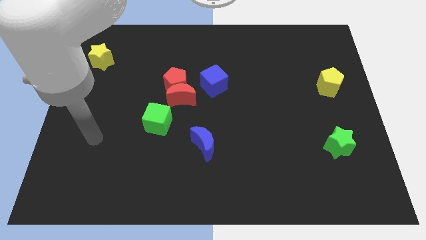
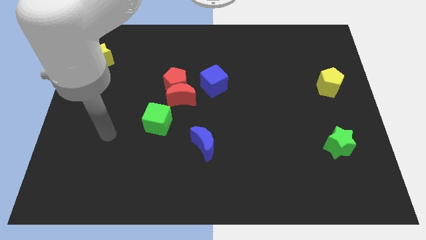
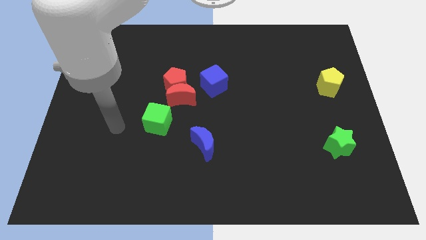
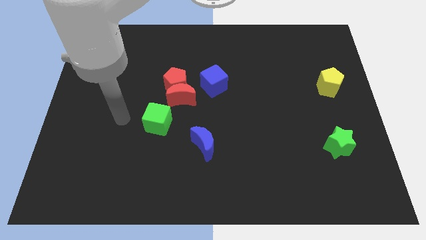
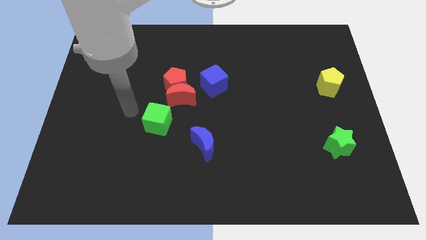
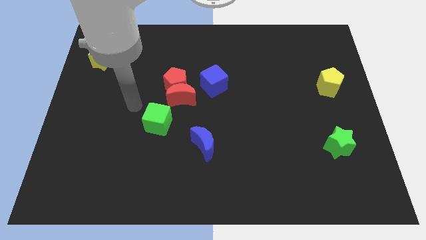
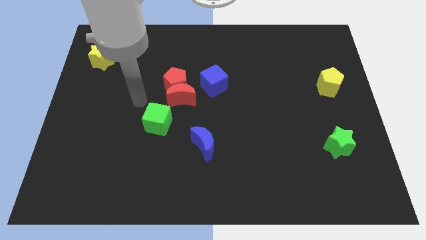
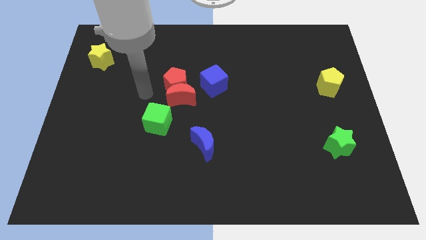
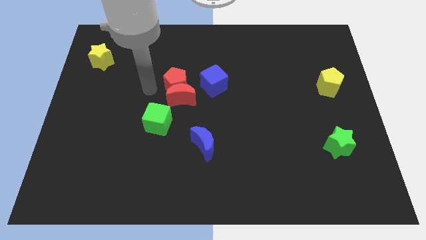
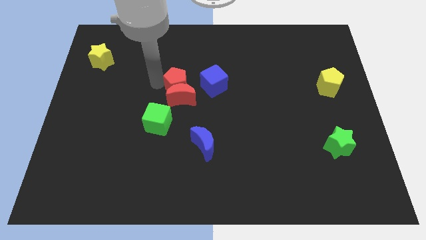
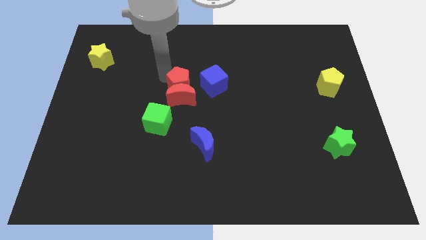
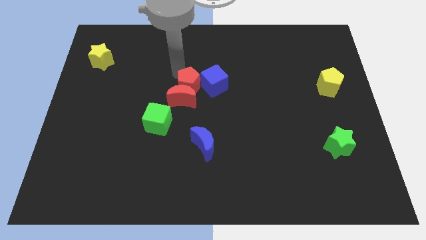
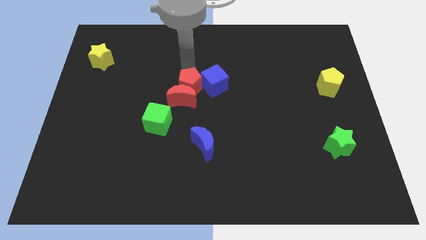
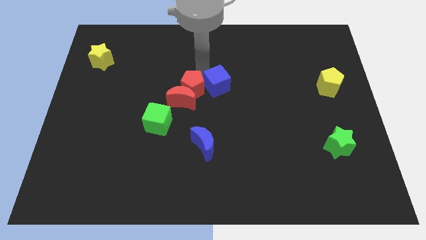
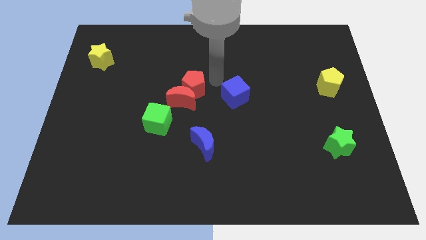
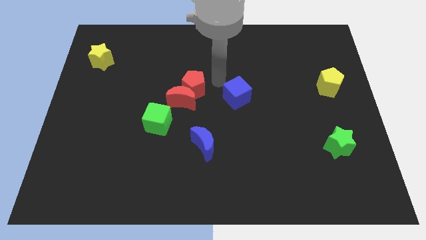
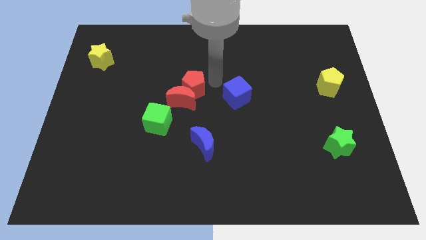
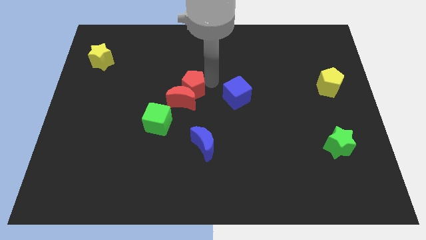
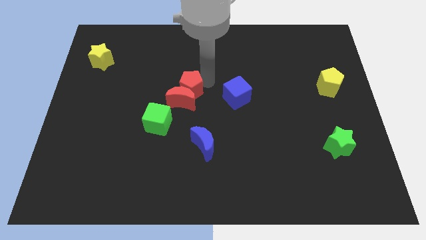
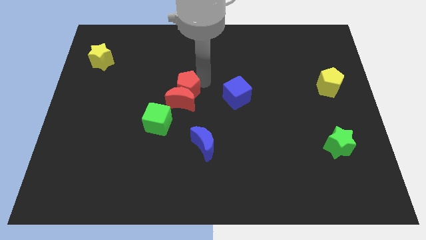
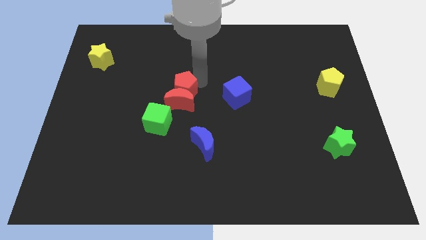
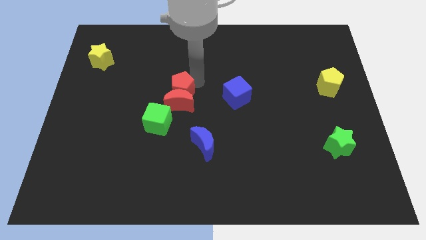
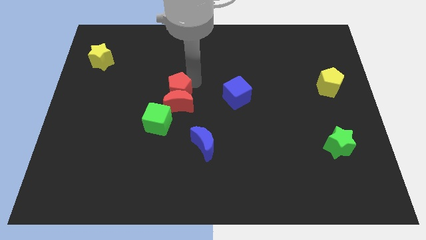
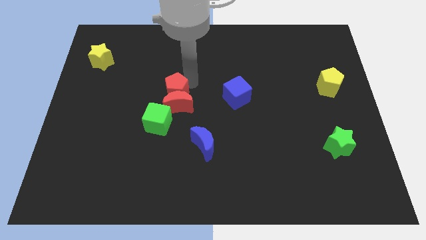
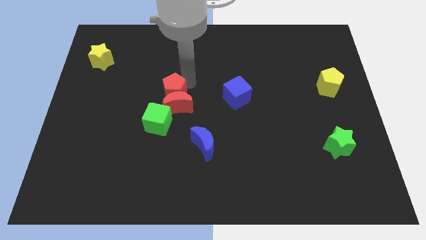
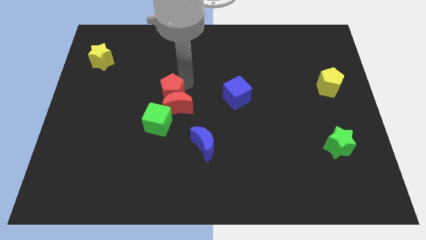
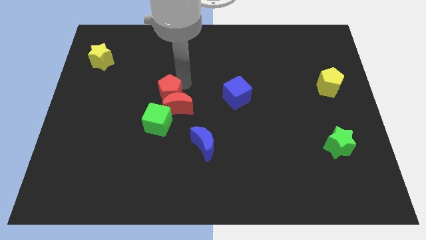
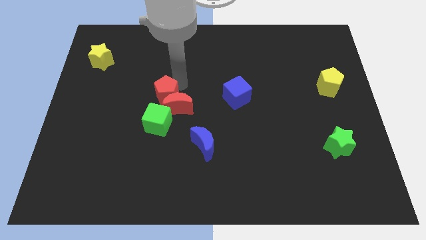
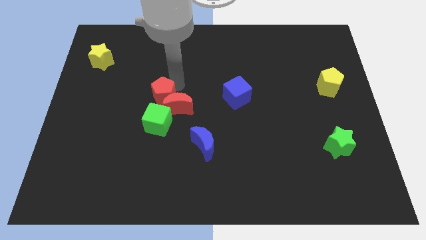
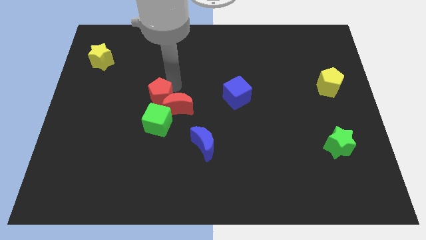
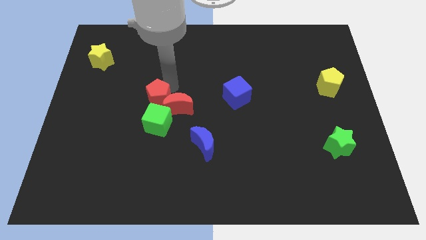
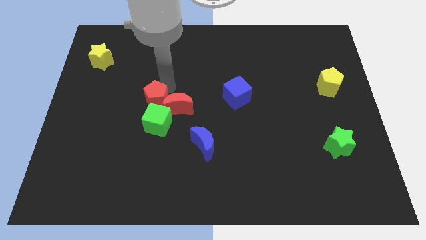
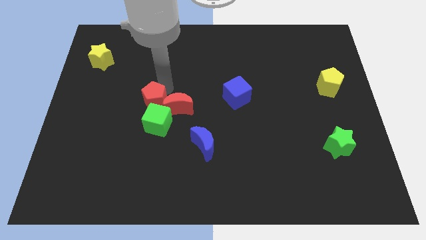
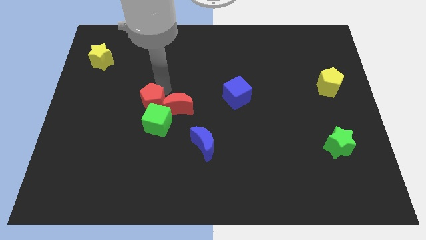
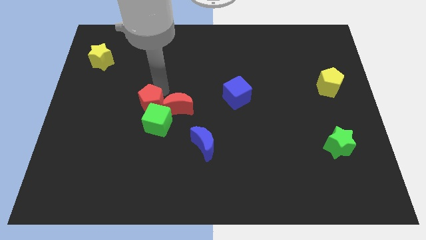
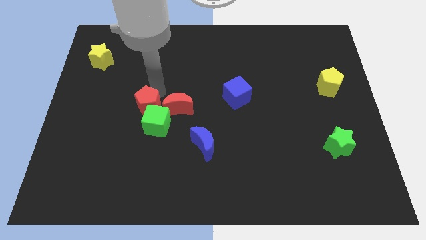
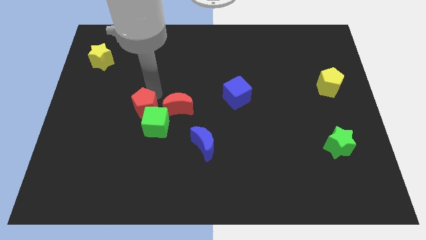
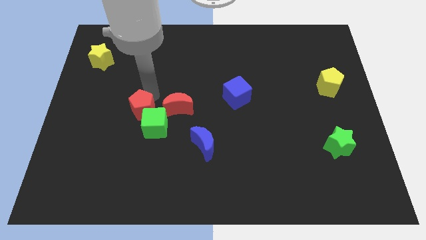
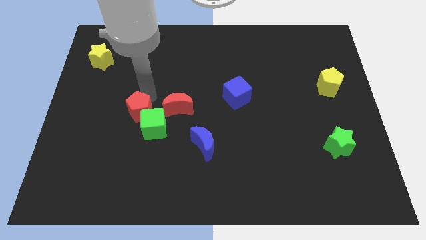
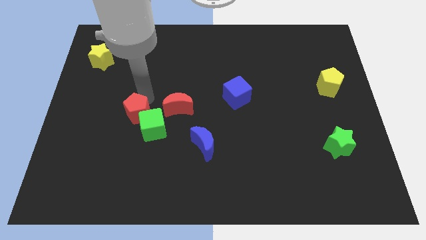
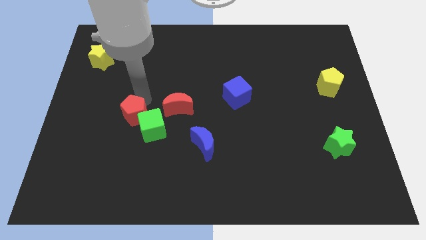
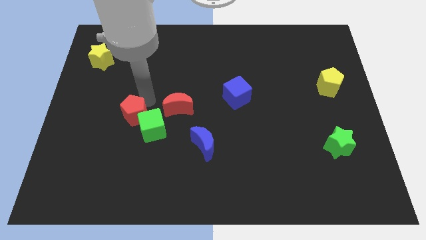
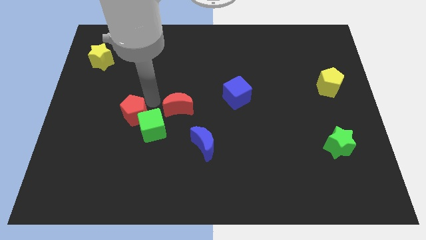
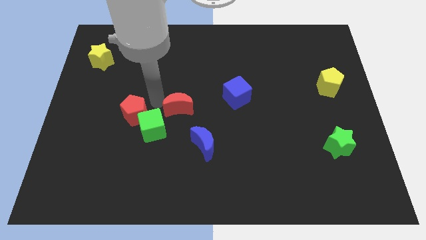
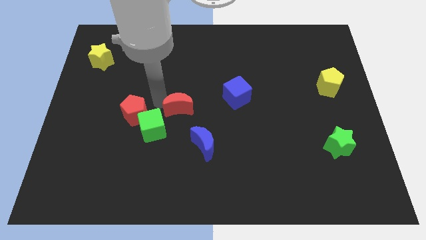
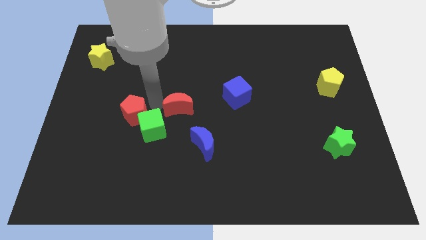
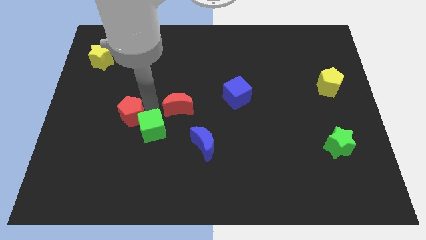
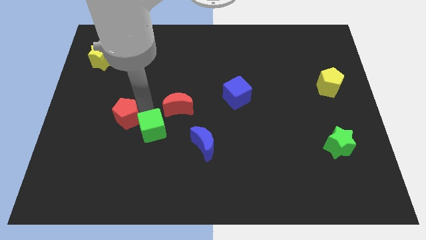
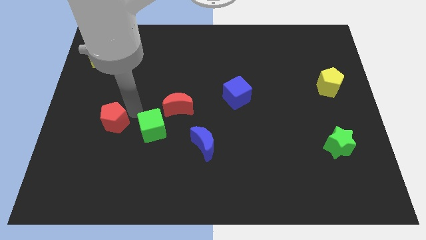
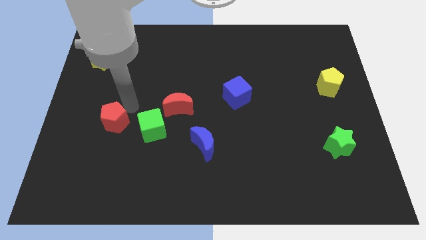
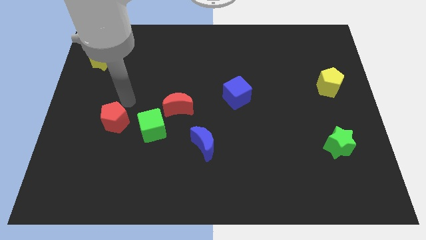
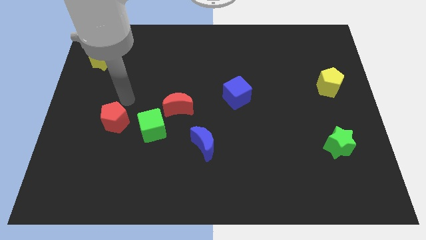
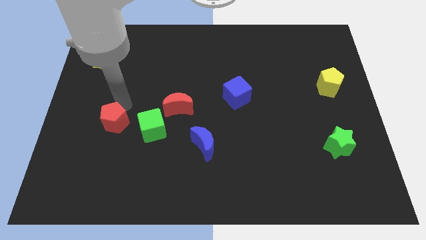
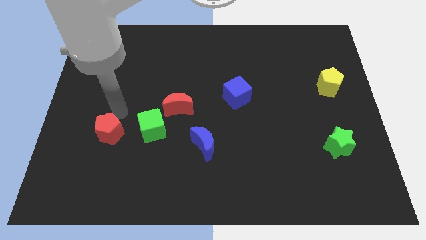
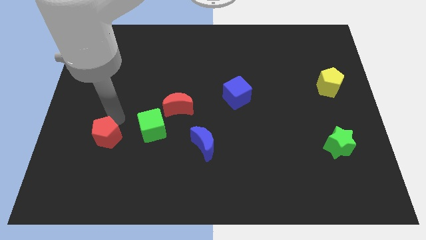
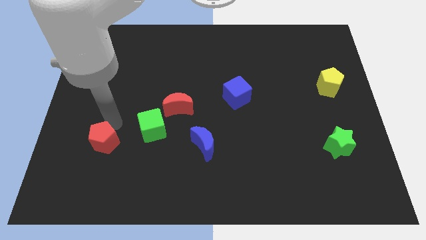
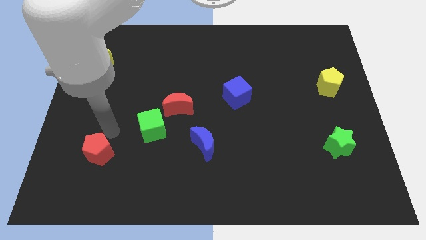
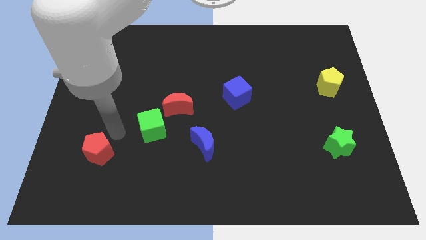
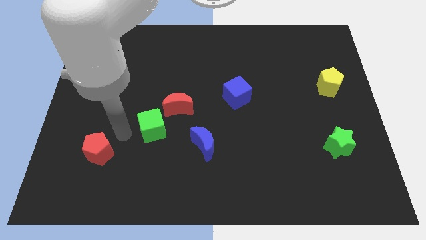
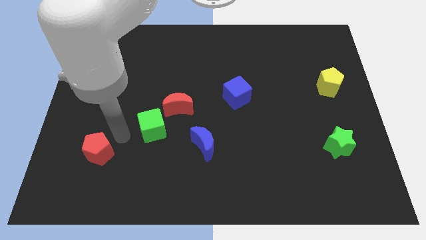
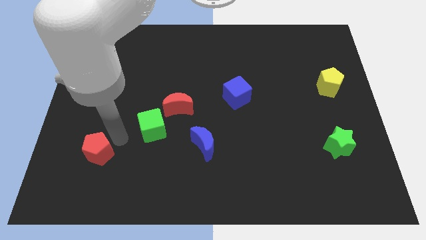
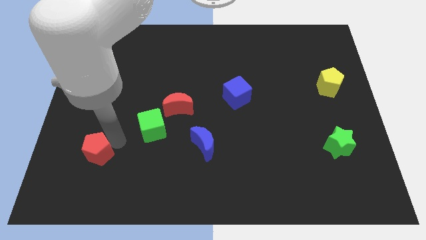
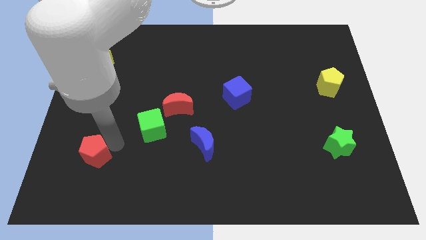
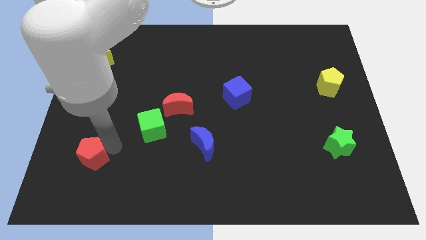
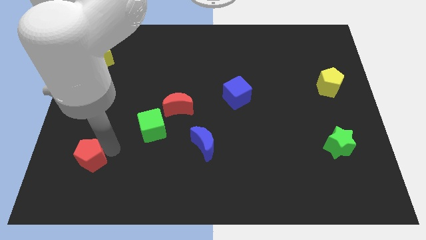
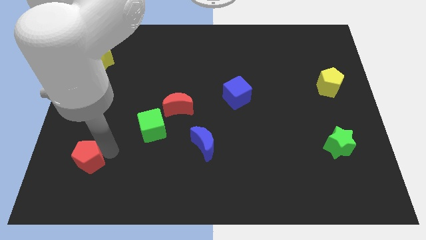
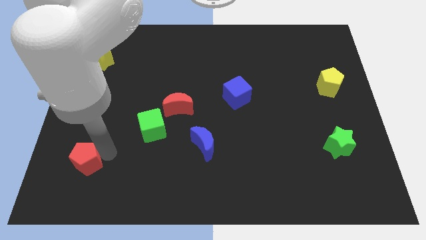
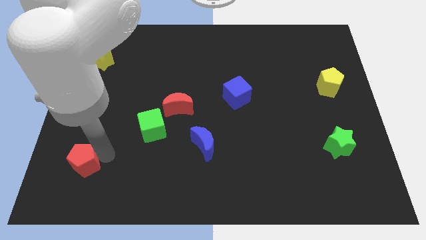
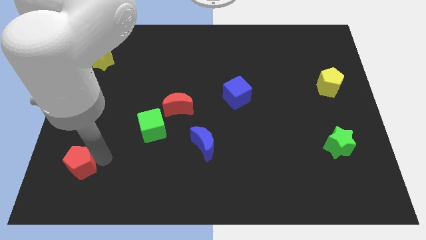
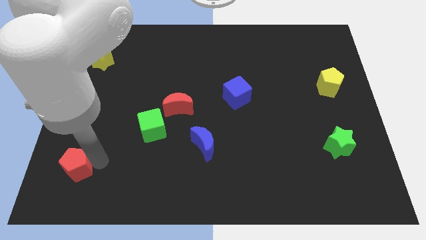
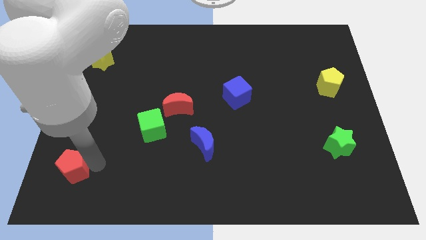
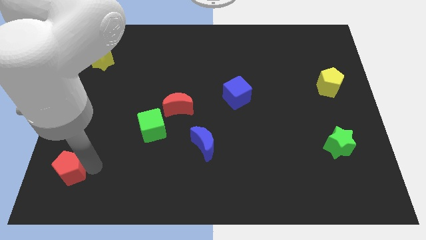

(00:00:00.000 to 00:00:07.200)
slide the red pentagon to the bottom left
